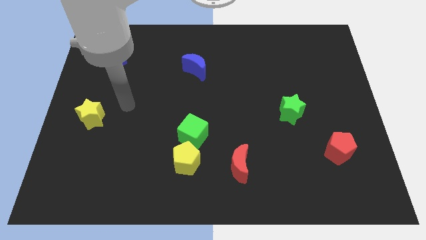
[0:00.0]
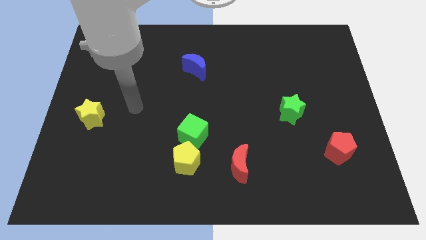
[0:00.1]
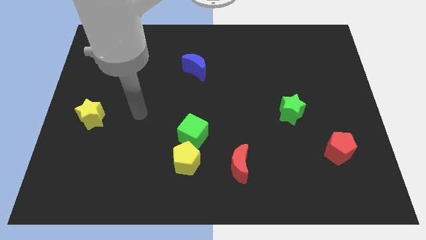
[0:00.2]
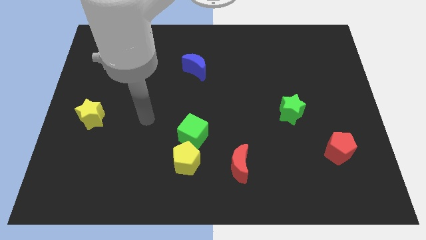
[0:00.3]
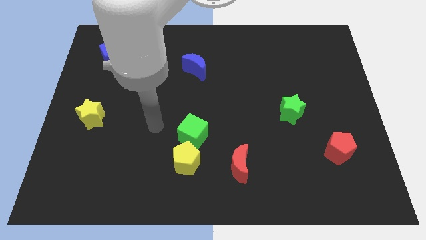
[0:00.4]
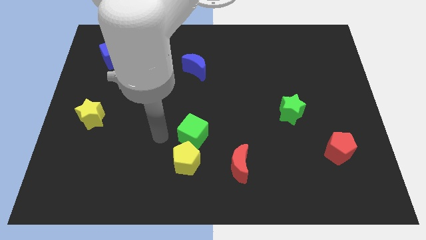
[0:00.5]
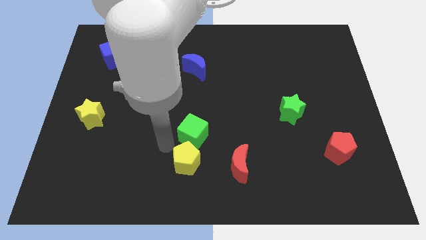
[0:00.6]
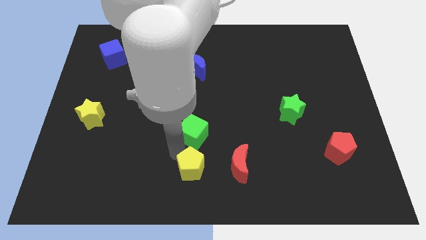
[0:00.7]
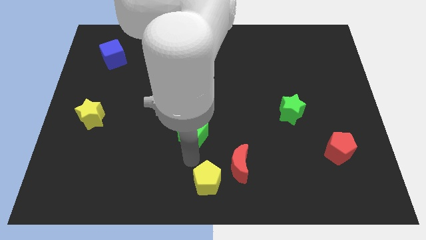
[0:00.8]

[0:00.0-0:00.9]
pull the green cube apart from the yellow pentagon

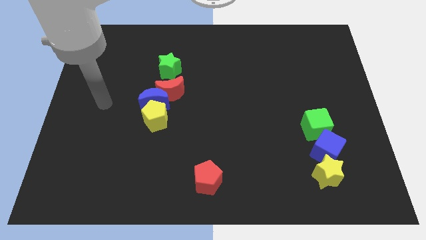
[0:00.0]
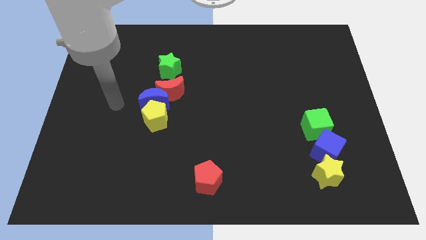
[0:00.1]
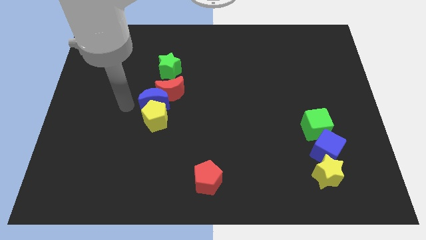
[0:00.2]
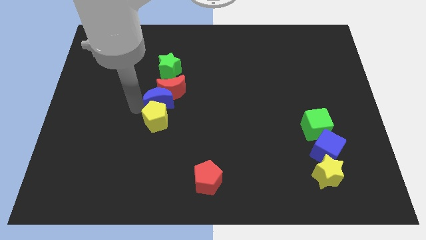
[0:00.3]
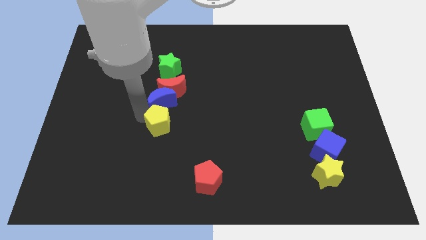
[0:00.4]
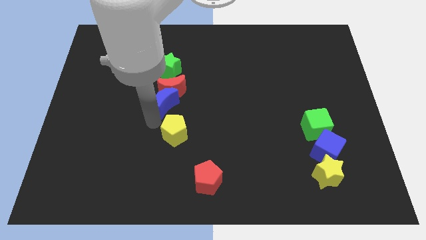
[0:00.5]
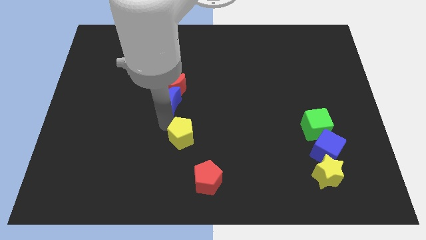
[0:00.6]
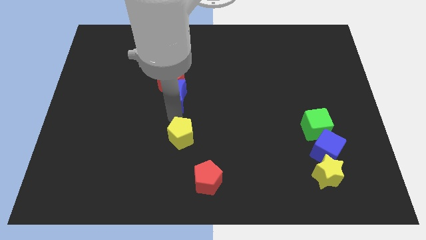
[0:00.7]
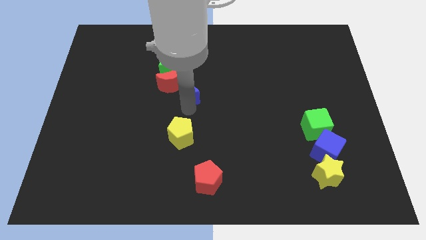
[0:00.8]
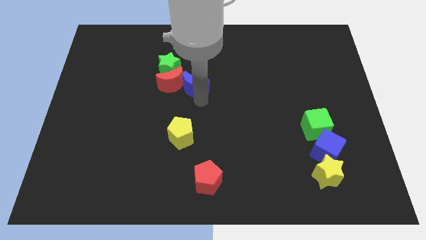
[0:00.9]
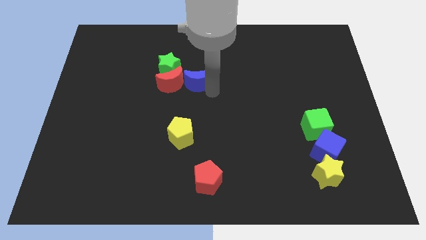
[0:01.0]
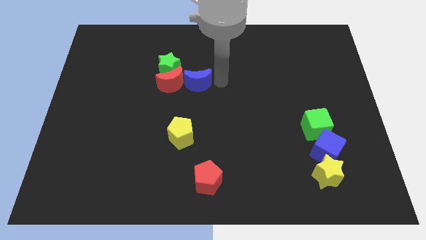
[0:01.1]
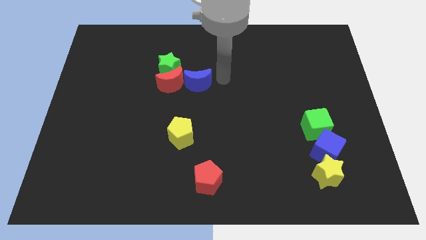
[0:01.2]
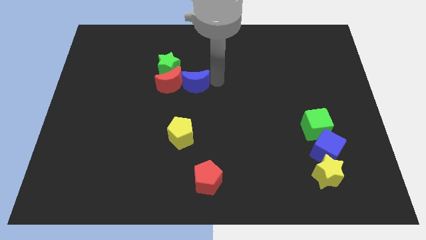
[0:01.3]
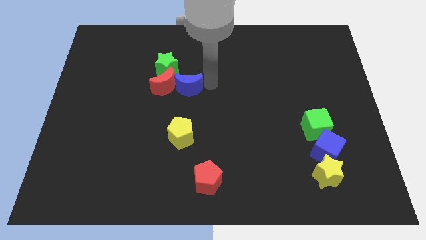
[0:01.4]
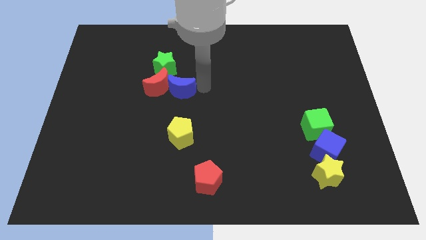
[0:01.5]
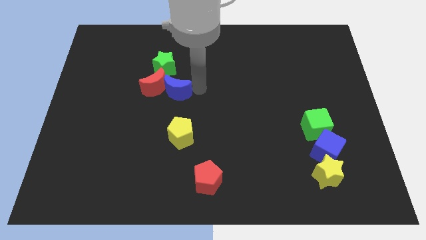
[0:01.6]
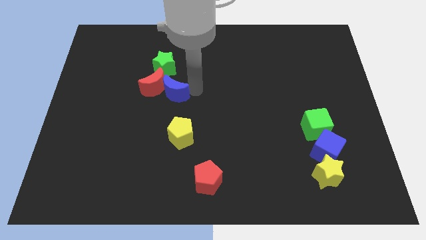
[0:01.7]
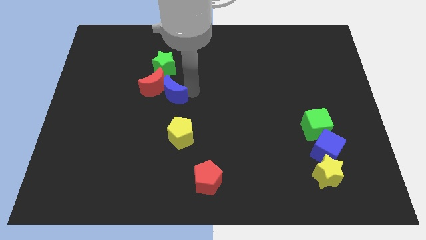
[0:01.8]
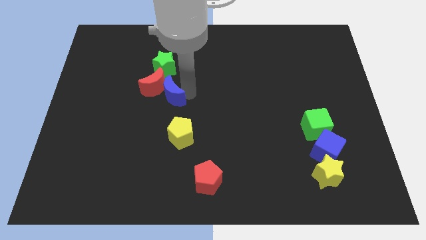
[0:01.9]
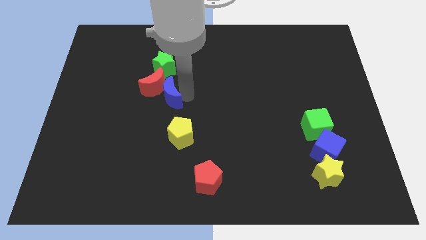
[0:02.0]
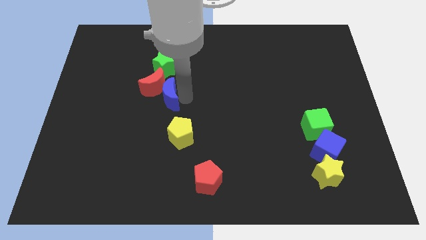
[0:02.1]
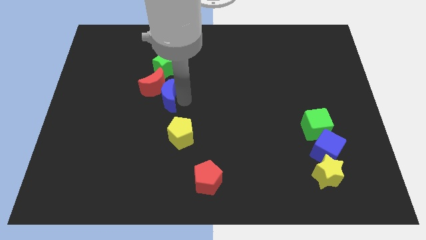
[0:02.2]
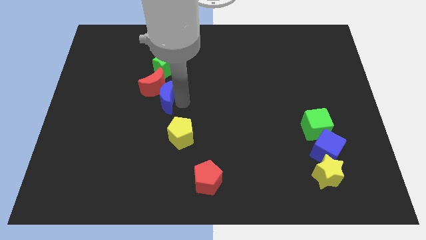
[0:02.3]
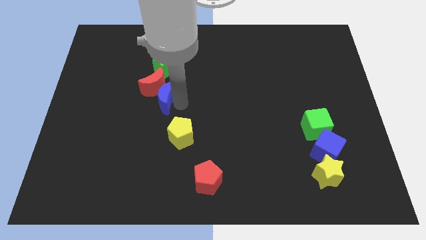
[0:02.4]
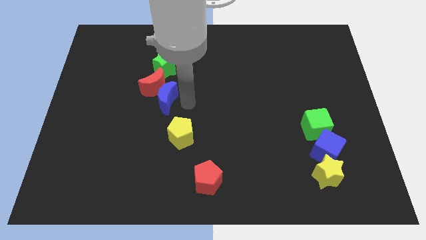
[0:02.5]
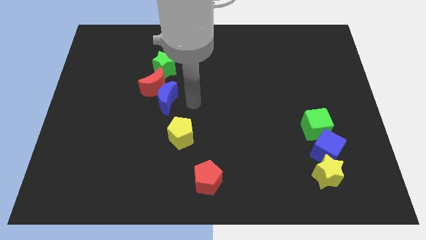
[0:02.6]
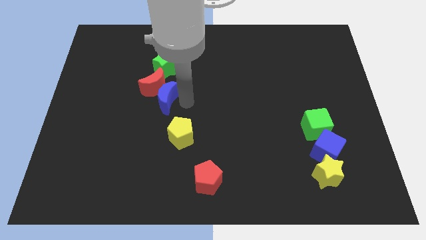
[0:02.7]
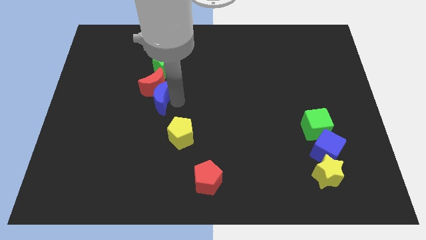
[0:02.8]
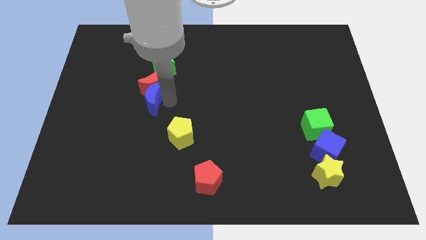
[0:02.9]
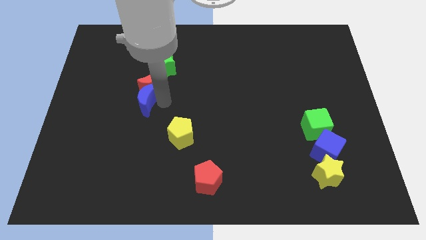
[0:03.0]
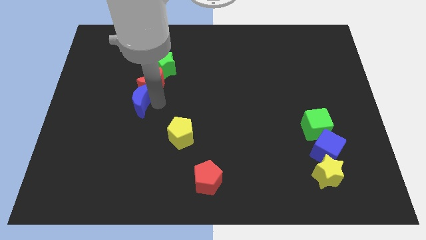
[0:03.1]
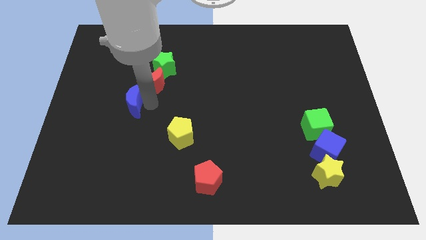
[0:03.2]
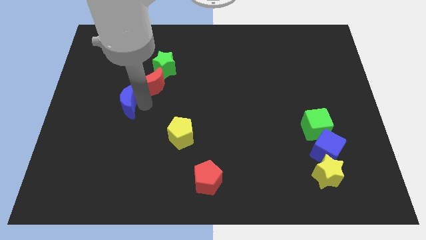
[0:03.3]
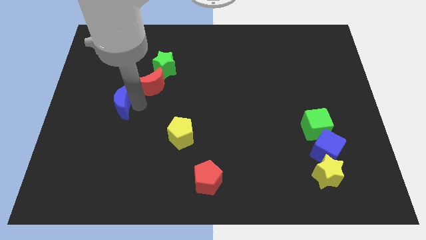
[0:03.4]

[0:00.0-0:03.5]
separate the blue moon from the red moon and yellow pentagon

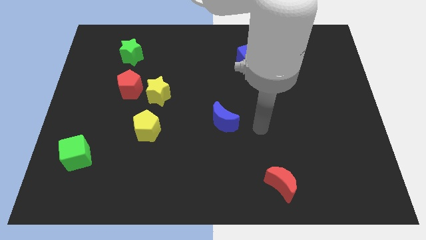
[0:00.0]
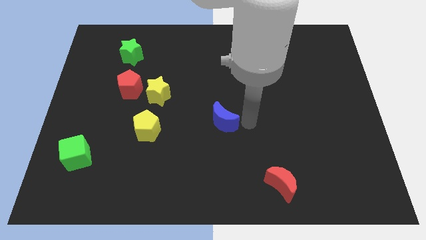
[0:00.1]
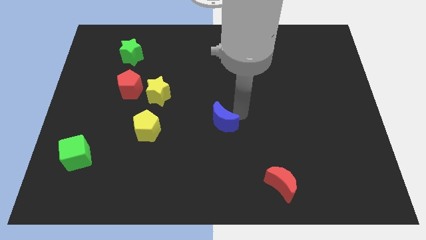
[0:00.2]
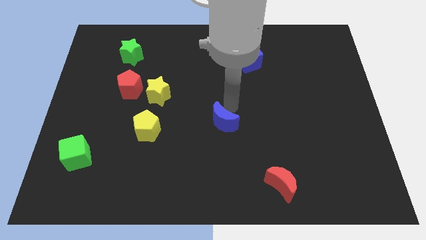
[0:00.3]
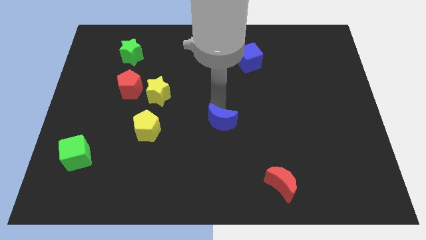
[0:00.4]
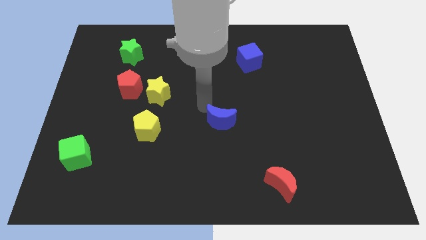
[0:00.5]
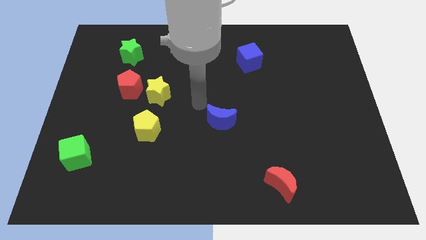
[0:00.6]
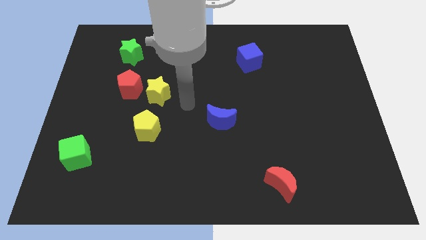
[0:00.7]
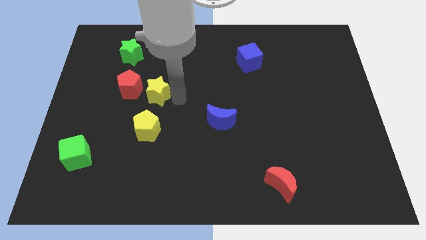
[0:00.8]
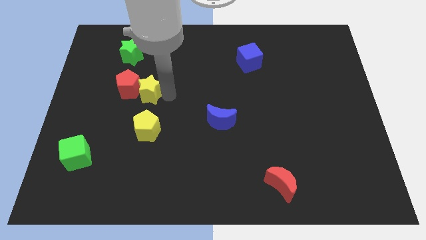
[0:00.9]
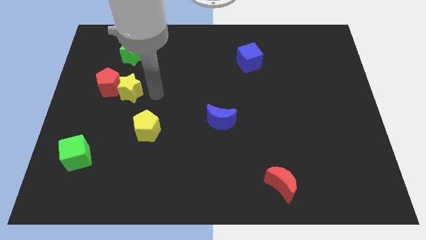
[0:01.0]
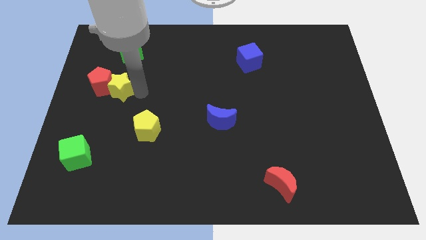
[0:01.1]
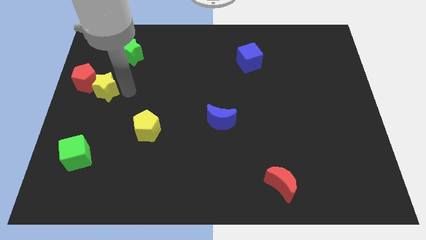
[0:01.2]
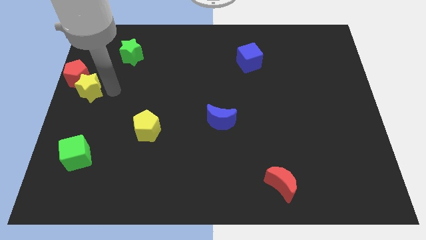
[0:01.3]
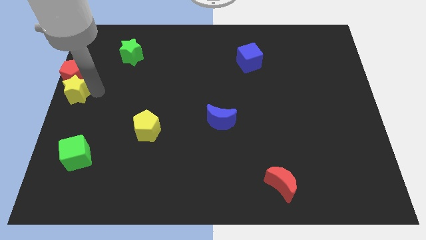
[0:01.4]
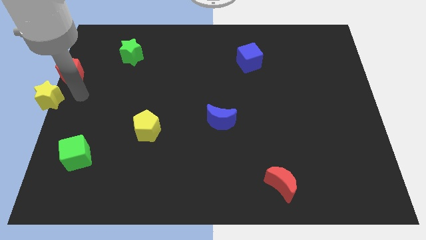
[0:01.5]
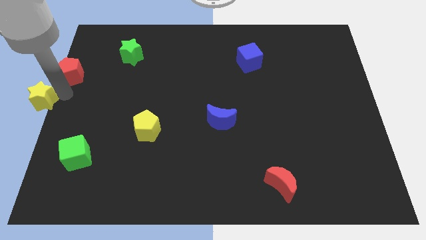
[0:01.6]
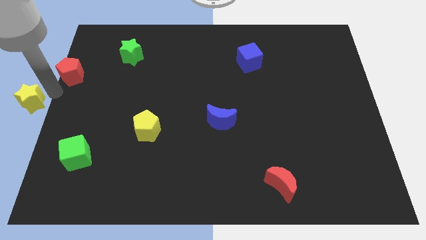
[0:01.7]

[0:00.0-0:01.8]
separate the red pentagon from the yellow star

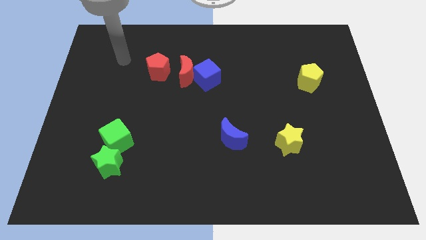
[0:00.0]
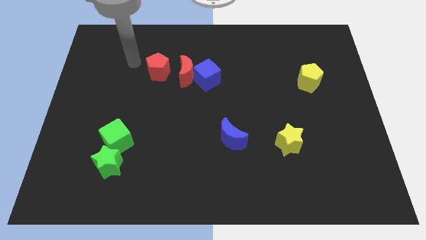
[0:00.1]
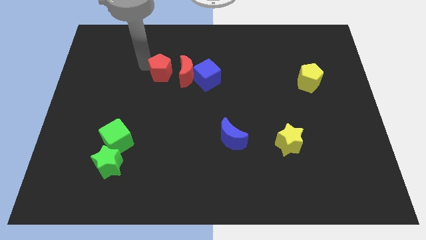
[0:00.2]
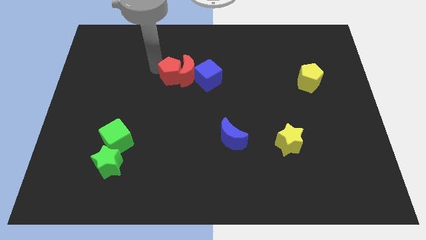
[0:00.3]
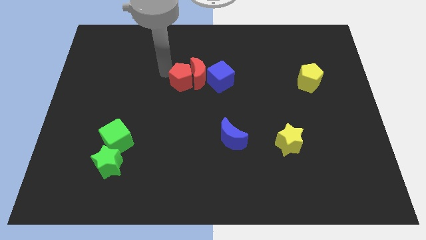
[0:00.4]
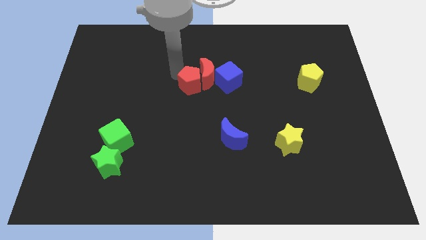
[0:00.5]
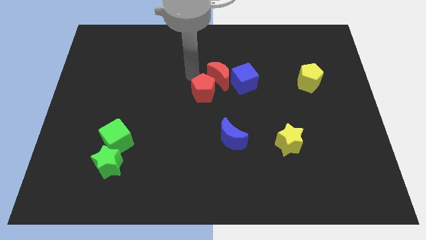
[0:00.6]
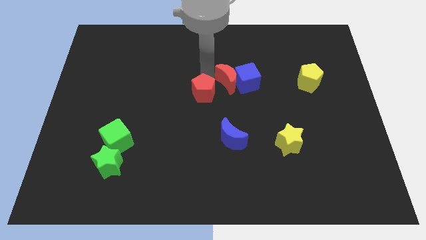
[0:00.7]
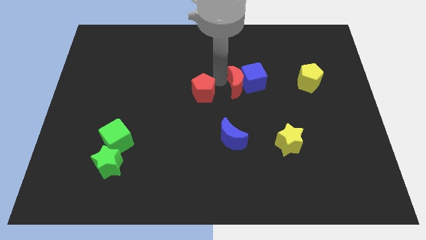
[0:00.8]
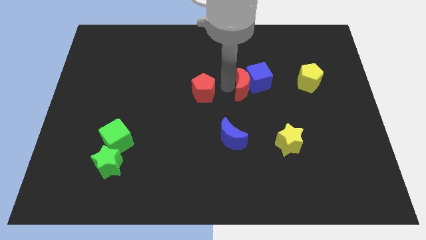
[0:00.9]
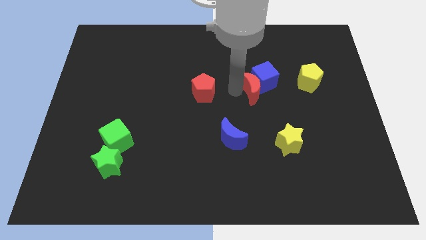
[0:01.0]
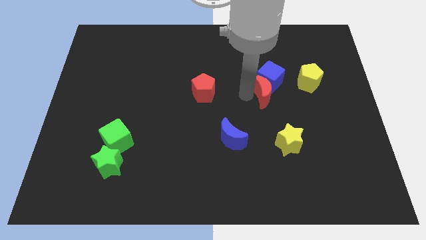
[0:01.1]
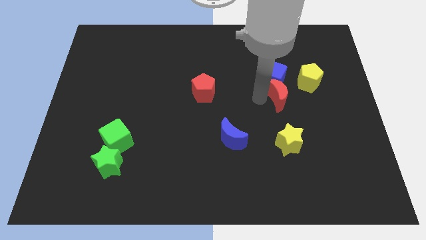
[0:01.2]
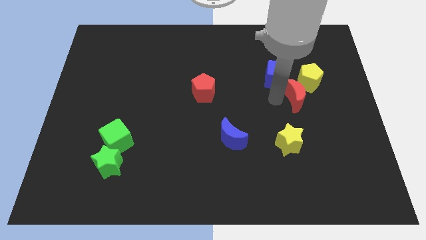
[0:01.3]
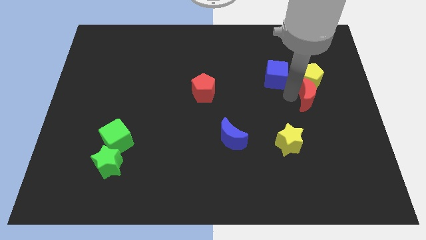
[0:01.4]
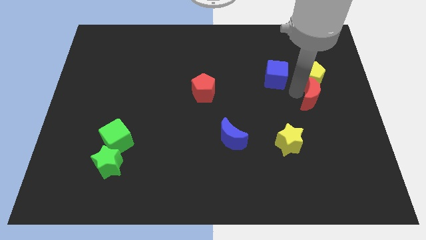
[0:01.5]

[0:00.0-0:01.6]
move the blue cube away from the red moon

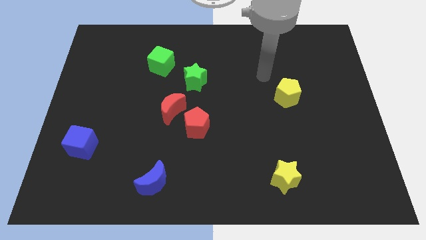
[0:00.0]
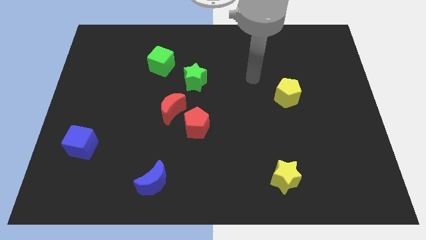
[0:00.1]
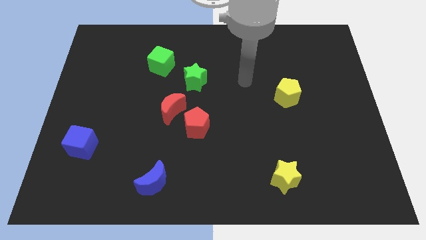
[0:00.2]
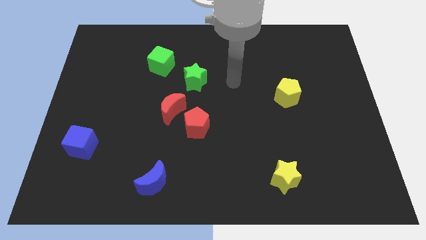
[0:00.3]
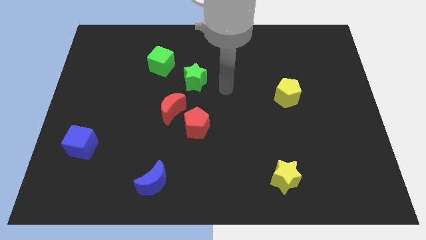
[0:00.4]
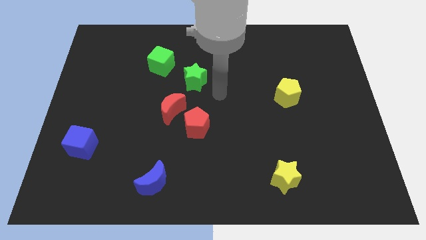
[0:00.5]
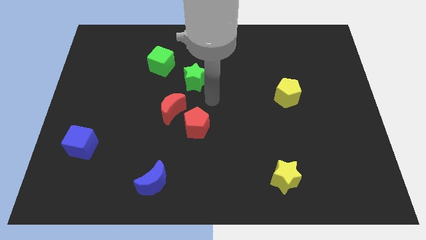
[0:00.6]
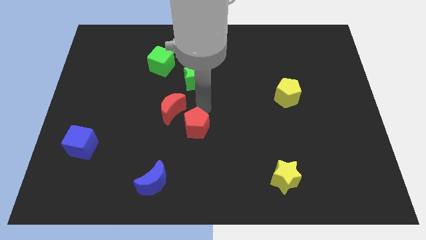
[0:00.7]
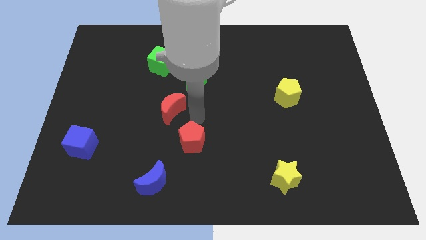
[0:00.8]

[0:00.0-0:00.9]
move the red moon away from the red pentagon

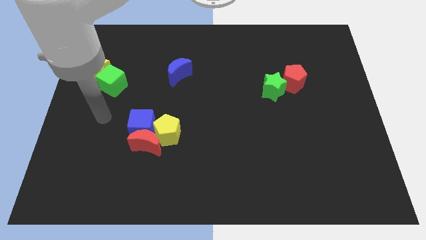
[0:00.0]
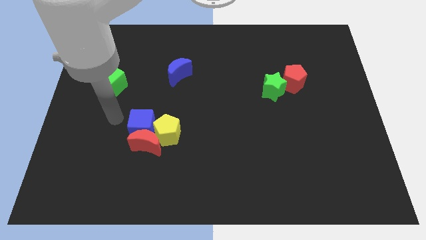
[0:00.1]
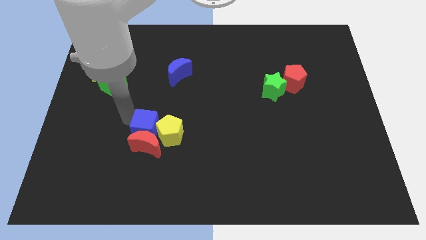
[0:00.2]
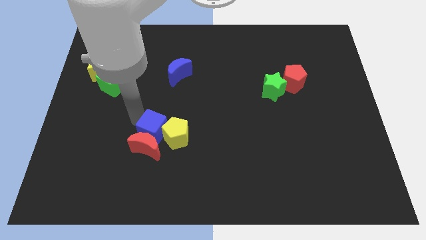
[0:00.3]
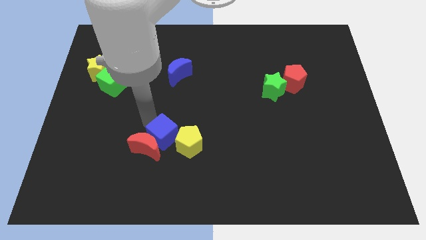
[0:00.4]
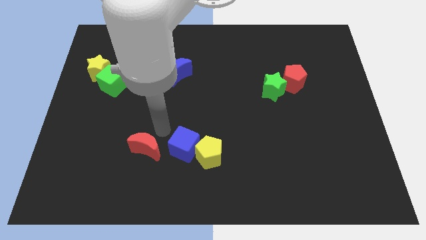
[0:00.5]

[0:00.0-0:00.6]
move the red moon away from the blue cube and yellow pentagon
